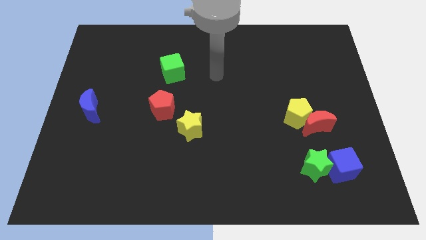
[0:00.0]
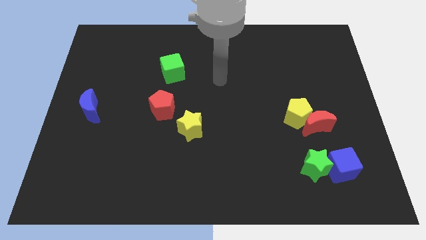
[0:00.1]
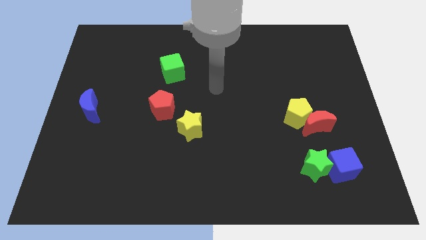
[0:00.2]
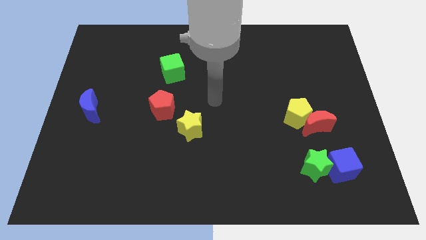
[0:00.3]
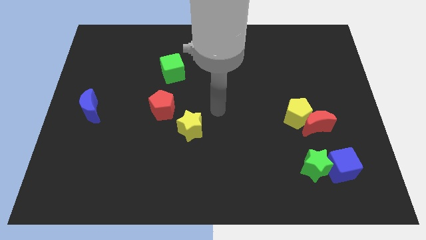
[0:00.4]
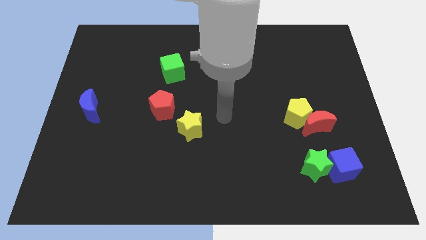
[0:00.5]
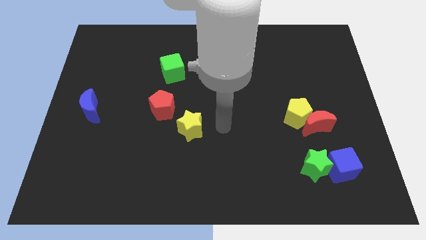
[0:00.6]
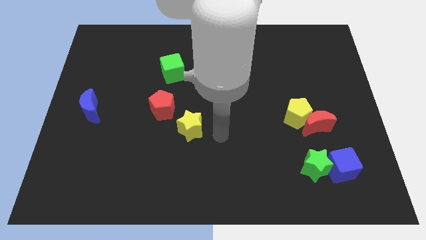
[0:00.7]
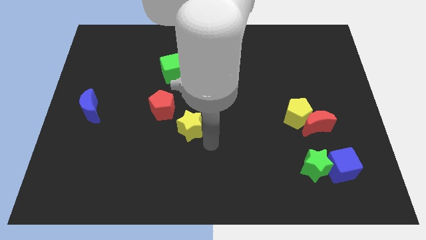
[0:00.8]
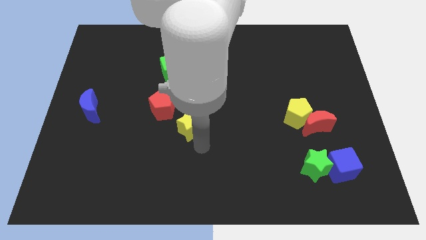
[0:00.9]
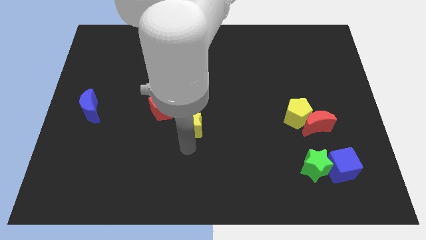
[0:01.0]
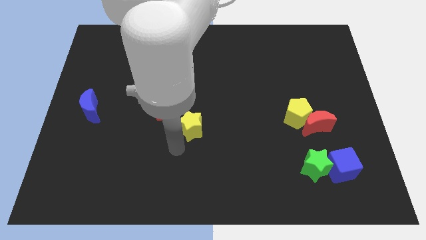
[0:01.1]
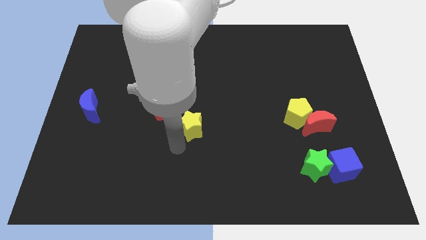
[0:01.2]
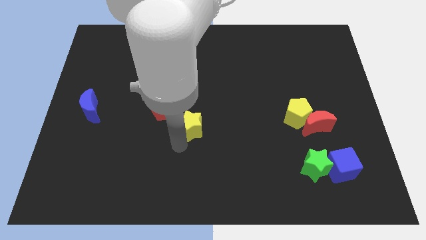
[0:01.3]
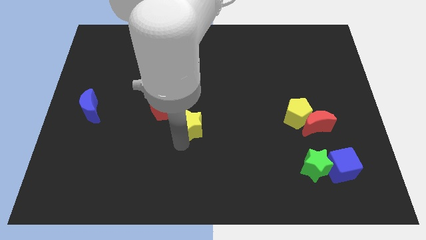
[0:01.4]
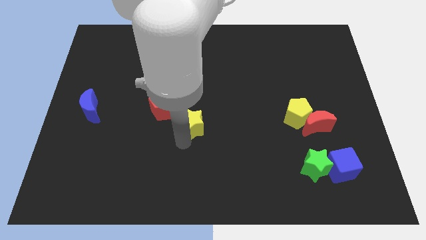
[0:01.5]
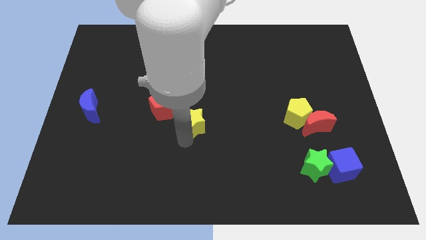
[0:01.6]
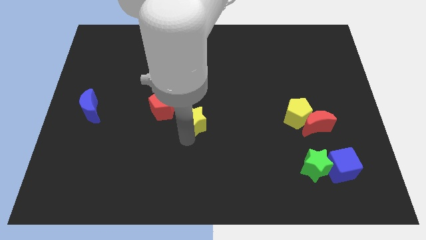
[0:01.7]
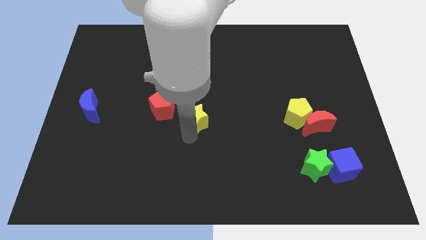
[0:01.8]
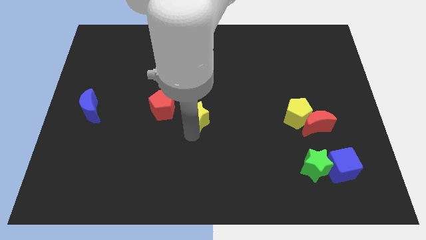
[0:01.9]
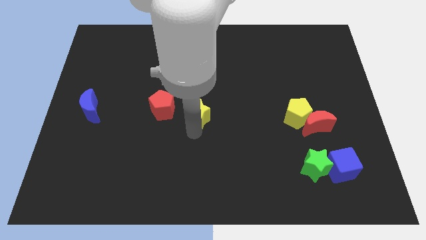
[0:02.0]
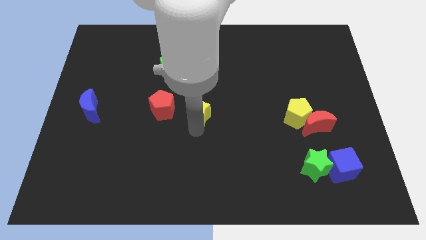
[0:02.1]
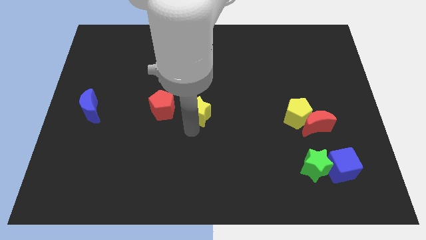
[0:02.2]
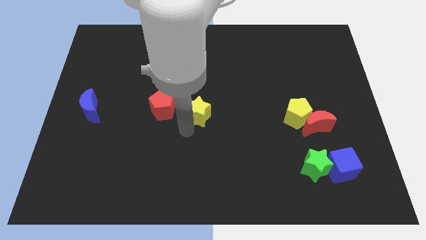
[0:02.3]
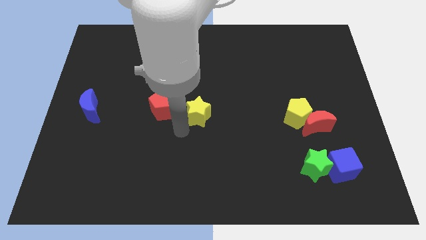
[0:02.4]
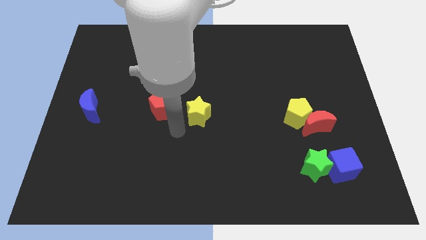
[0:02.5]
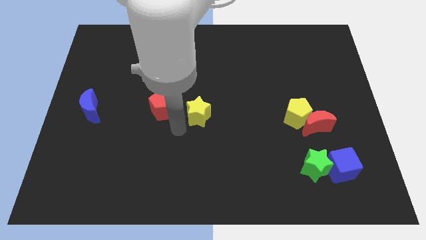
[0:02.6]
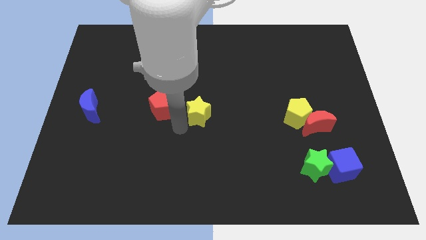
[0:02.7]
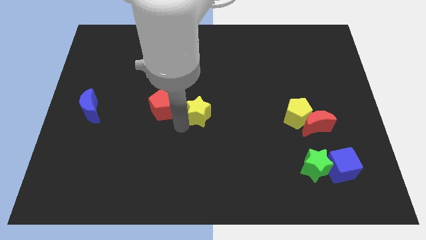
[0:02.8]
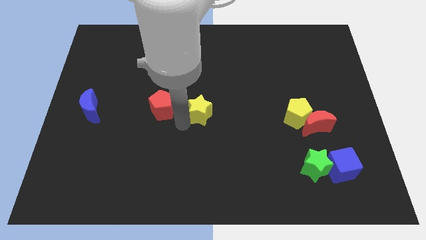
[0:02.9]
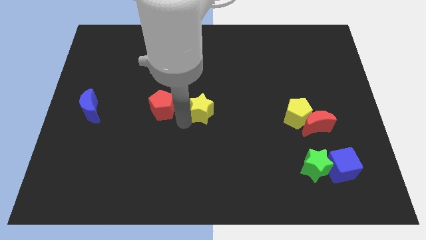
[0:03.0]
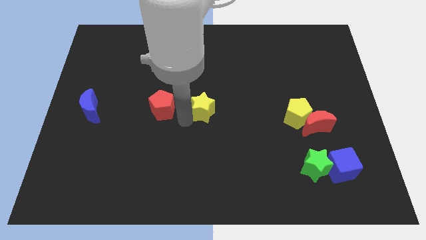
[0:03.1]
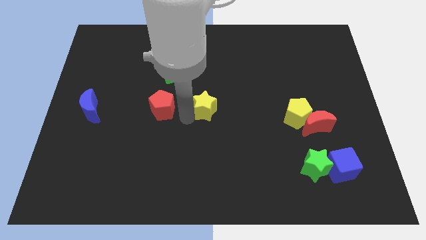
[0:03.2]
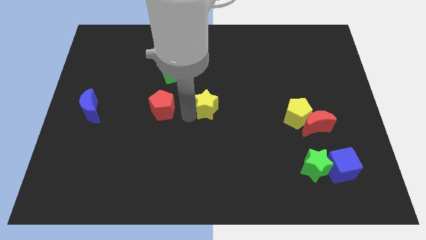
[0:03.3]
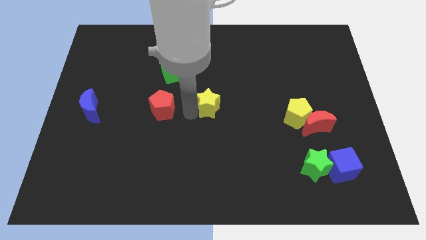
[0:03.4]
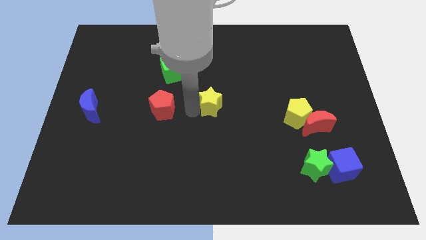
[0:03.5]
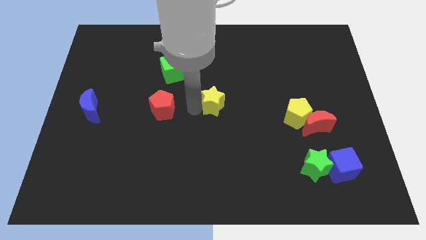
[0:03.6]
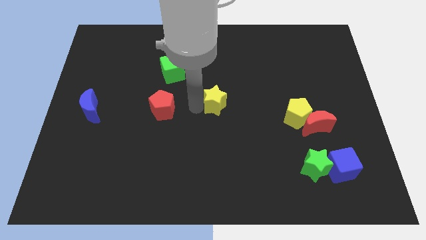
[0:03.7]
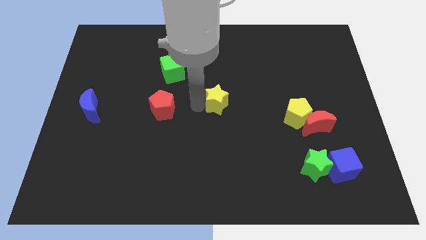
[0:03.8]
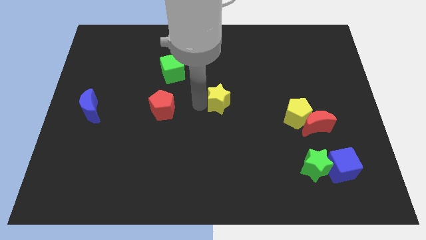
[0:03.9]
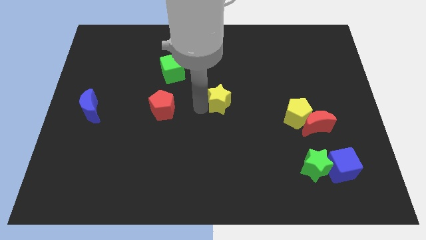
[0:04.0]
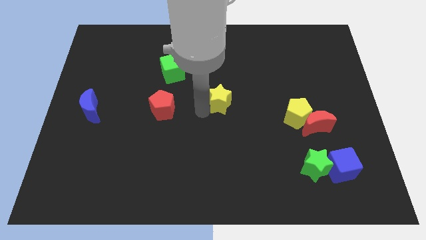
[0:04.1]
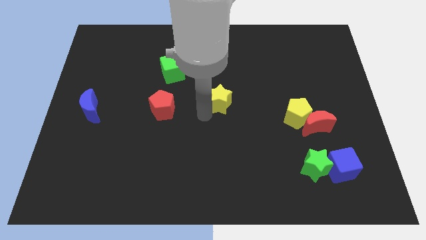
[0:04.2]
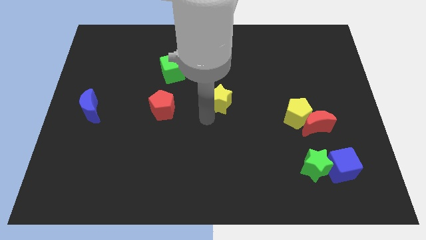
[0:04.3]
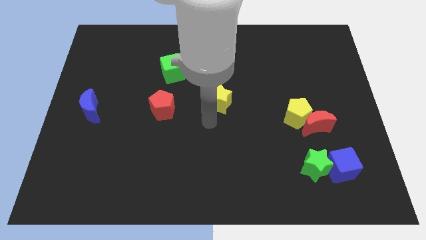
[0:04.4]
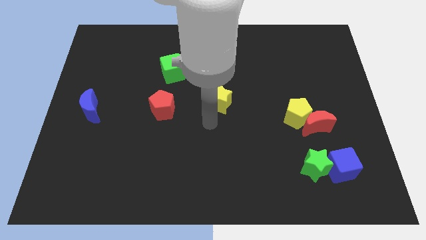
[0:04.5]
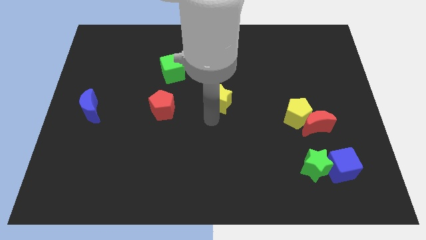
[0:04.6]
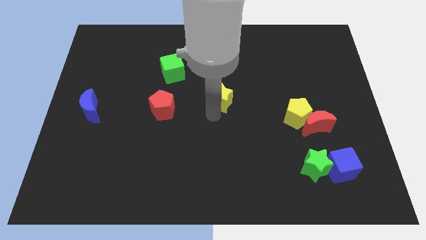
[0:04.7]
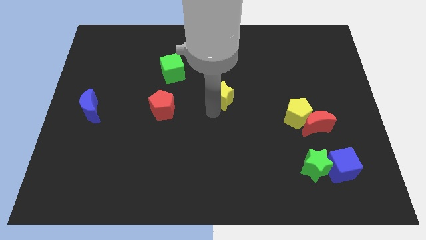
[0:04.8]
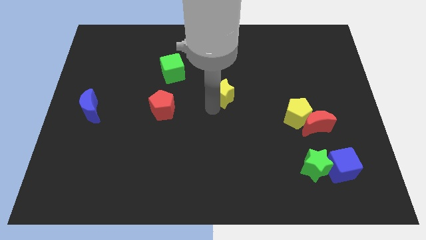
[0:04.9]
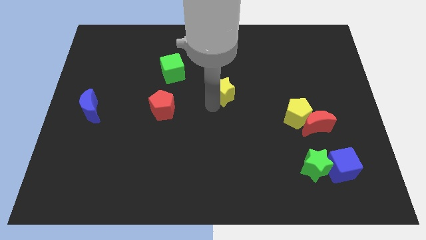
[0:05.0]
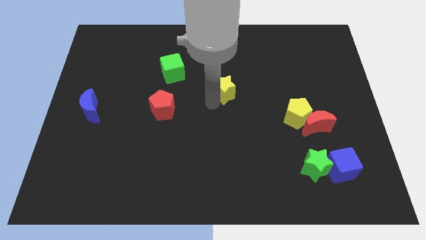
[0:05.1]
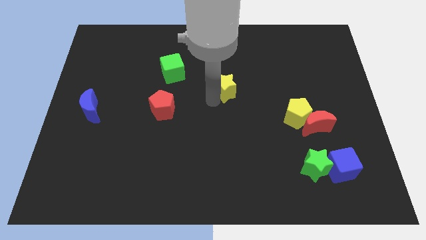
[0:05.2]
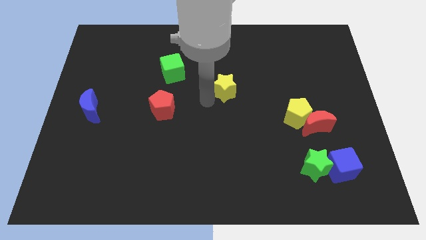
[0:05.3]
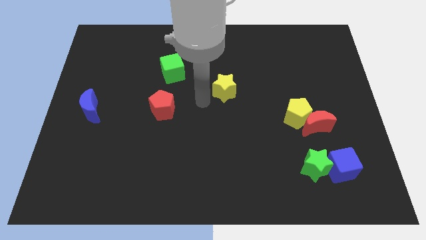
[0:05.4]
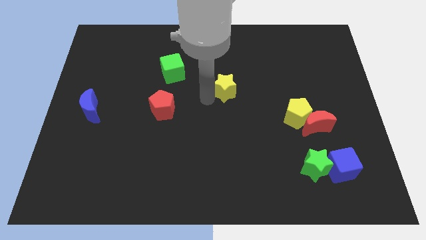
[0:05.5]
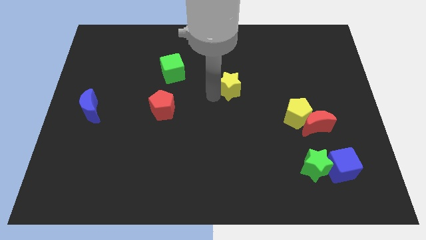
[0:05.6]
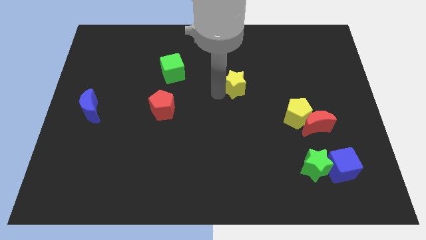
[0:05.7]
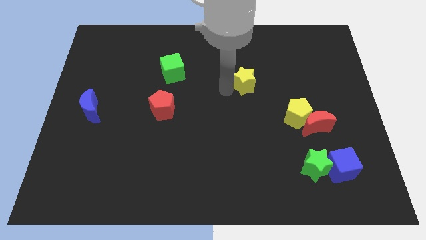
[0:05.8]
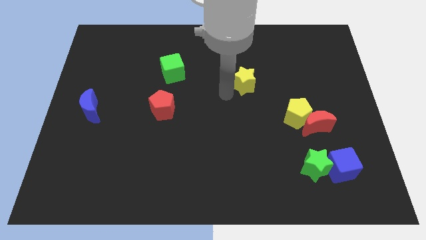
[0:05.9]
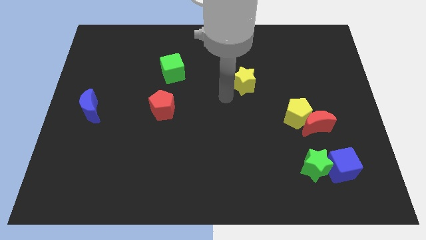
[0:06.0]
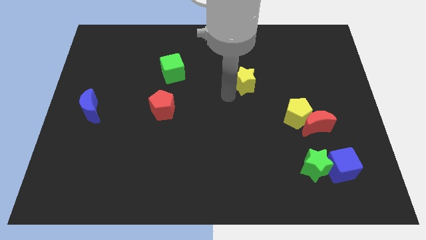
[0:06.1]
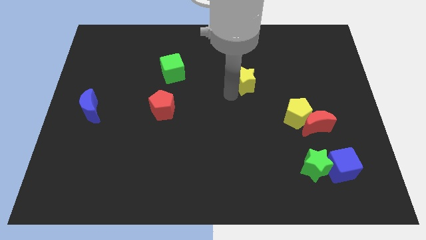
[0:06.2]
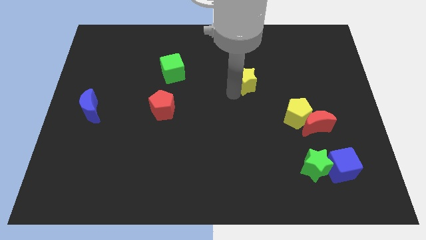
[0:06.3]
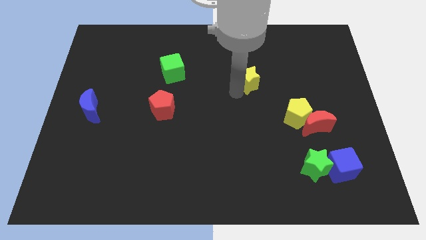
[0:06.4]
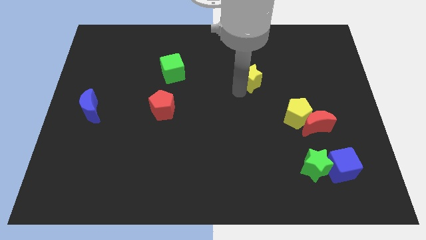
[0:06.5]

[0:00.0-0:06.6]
move the yellow star up and to the right

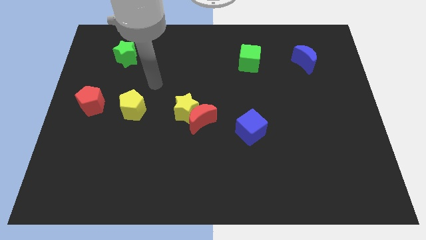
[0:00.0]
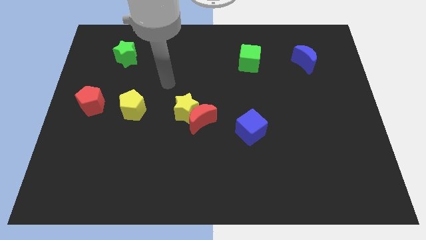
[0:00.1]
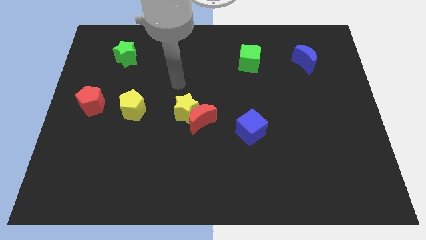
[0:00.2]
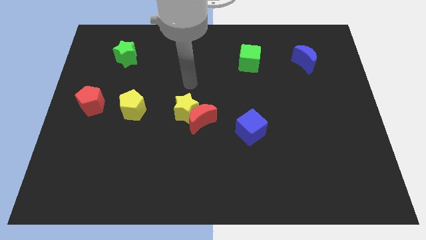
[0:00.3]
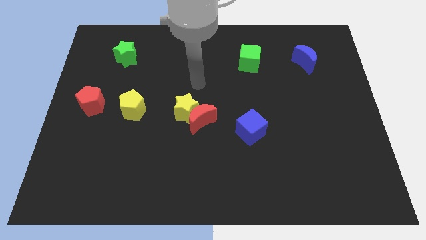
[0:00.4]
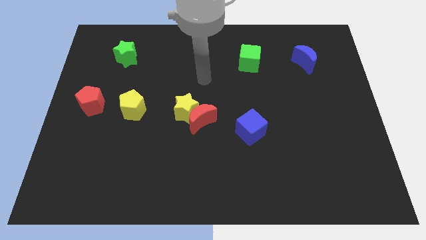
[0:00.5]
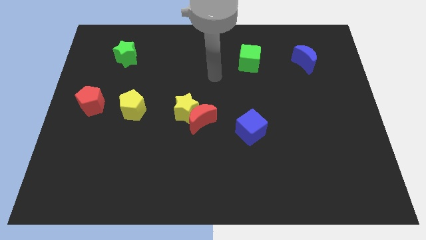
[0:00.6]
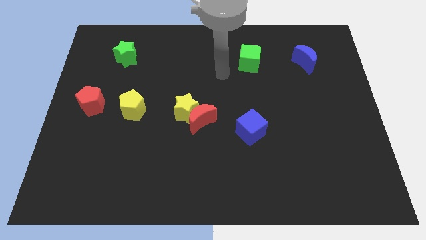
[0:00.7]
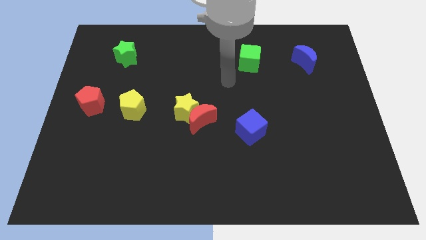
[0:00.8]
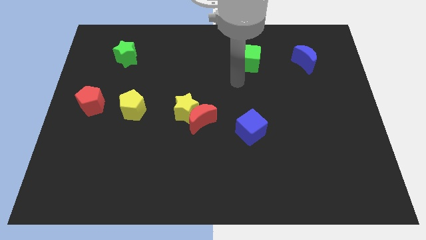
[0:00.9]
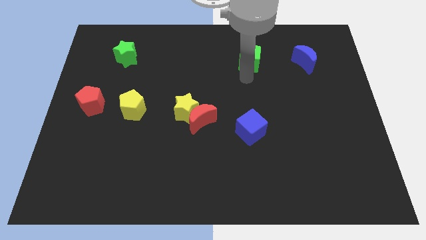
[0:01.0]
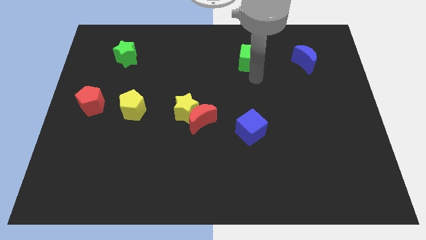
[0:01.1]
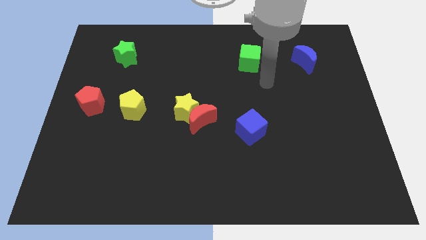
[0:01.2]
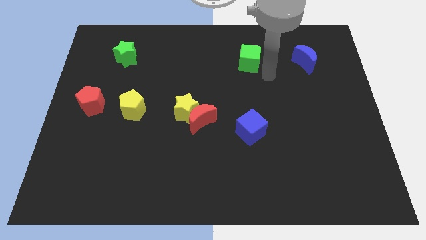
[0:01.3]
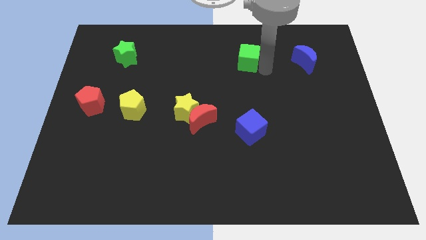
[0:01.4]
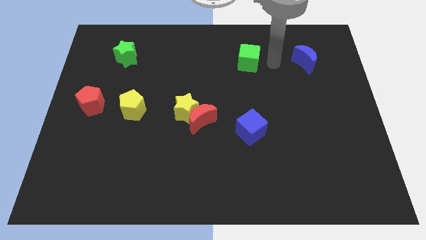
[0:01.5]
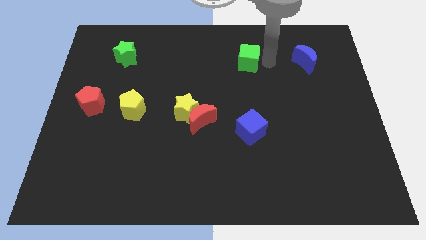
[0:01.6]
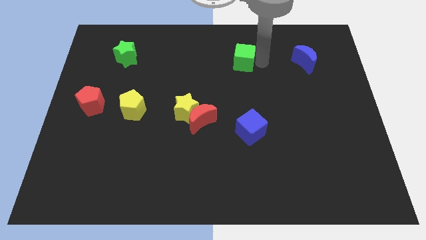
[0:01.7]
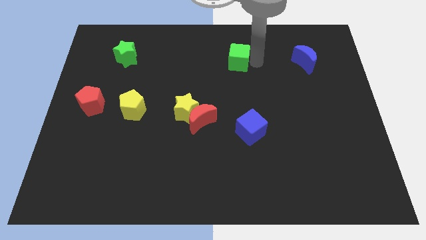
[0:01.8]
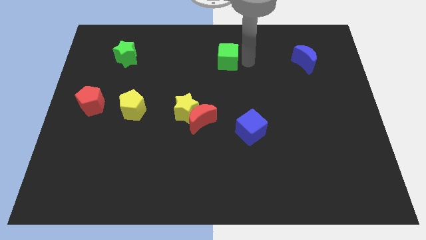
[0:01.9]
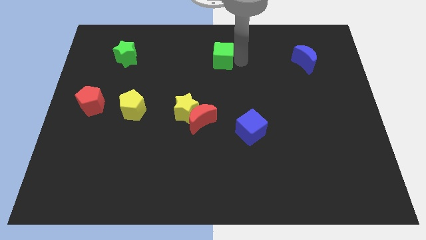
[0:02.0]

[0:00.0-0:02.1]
slightly move the green cube left
